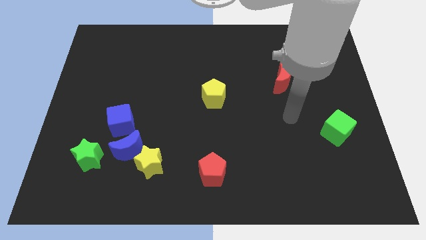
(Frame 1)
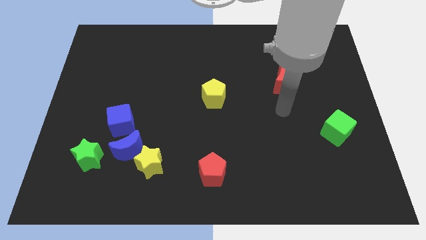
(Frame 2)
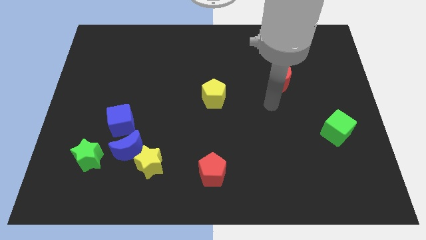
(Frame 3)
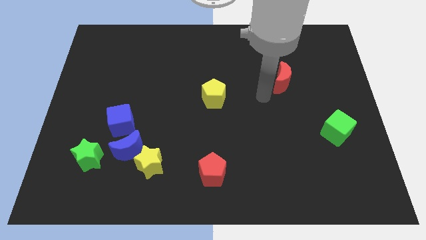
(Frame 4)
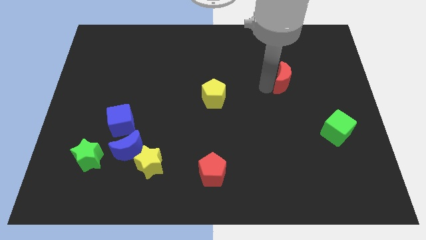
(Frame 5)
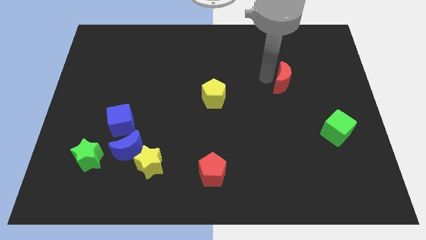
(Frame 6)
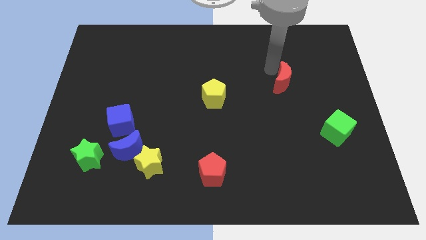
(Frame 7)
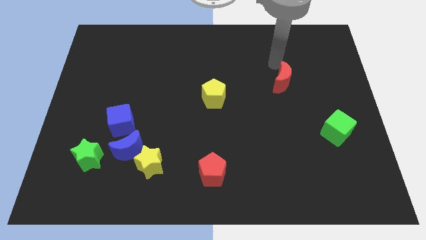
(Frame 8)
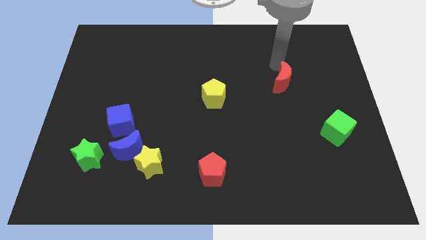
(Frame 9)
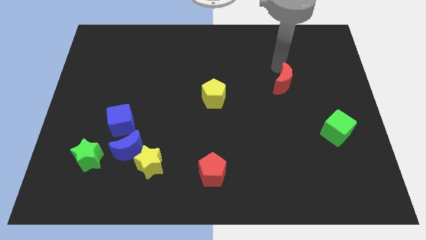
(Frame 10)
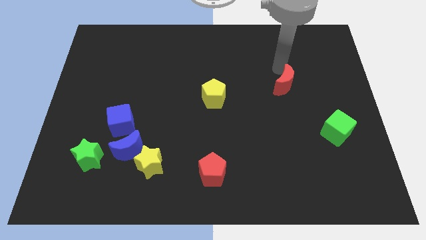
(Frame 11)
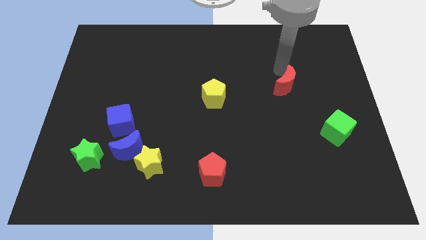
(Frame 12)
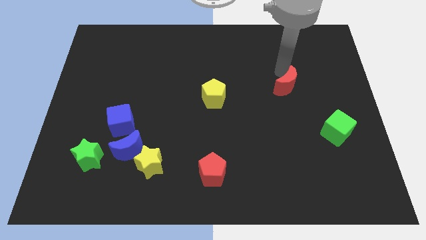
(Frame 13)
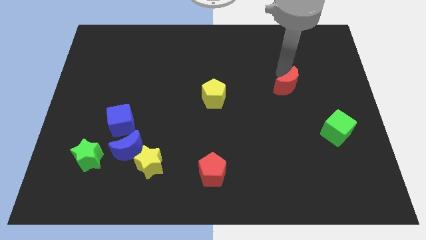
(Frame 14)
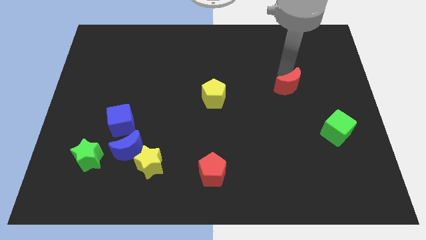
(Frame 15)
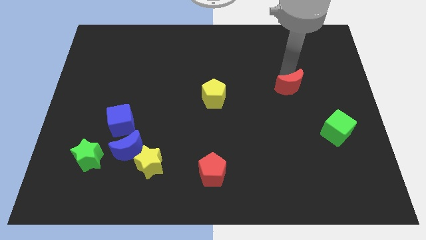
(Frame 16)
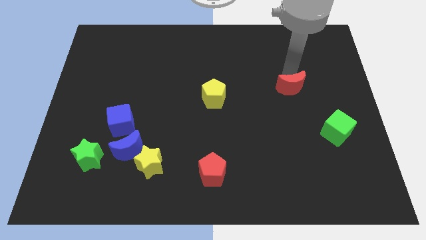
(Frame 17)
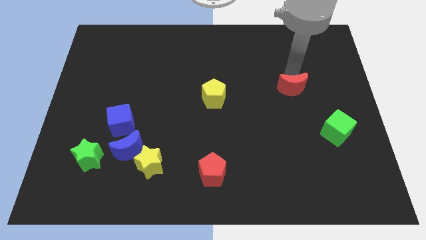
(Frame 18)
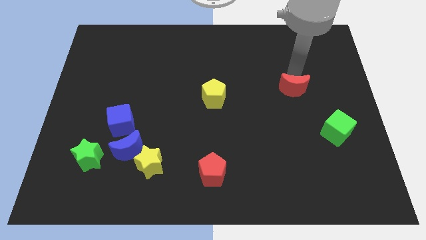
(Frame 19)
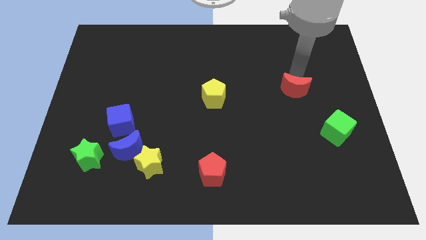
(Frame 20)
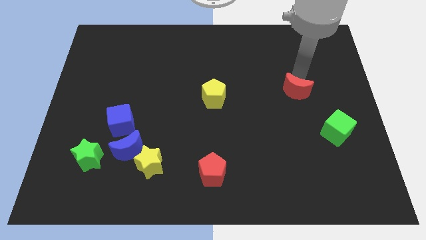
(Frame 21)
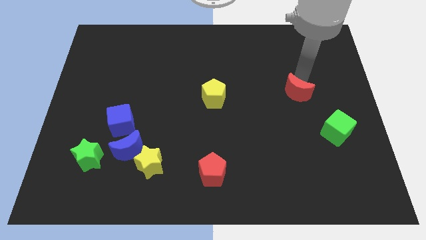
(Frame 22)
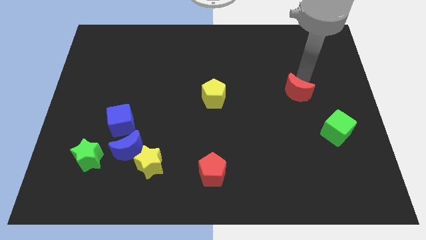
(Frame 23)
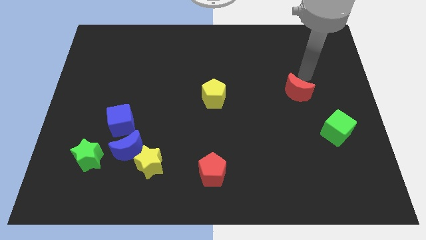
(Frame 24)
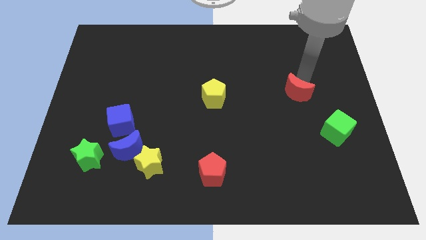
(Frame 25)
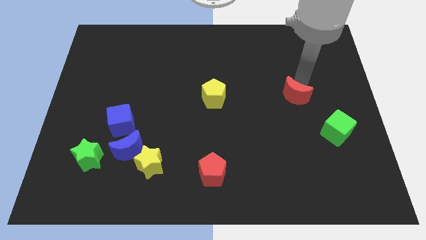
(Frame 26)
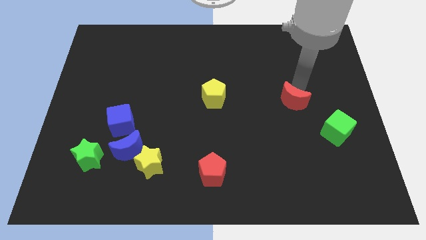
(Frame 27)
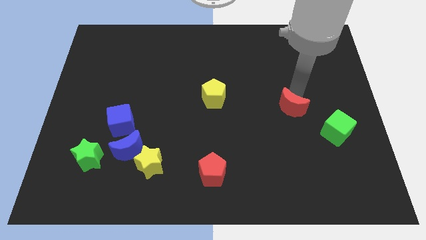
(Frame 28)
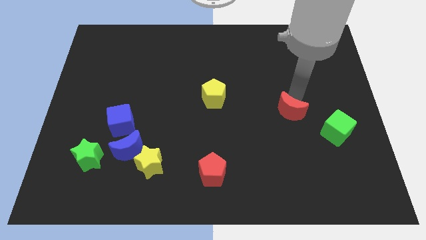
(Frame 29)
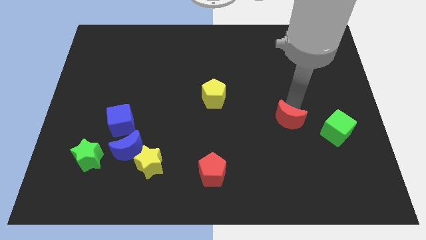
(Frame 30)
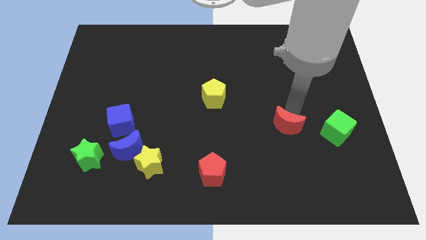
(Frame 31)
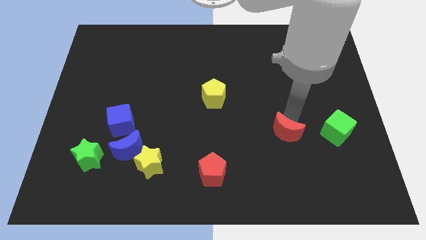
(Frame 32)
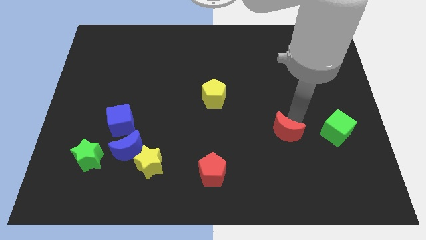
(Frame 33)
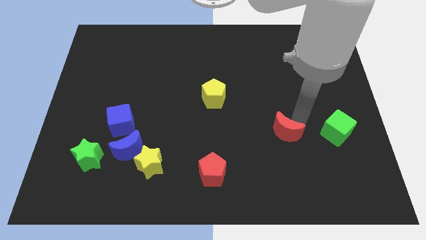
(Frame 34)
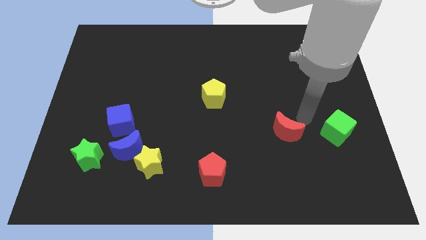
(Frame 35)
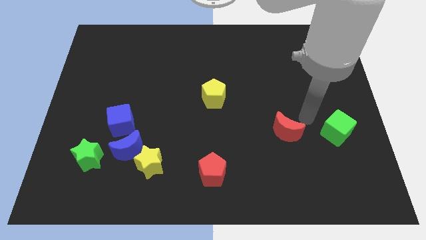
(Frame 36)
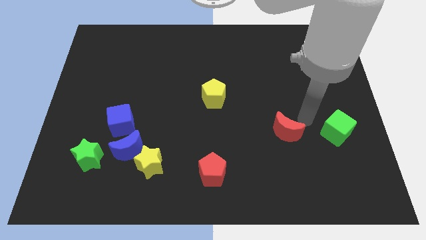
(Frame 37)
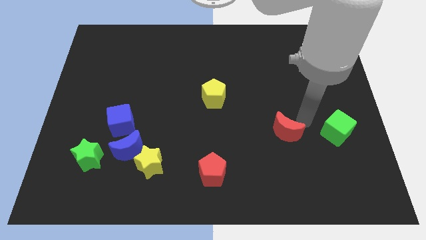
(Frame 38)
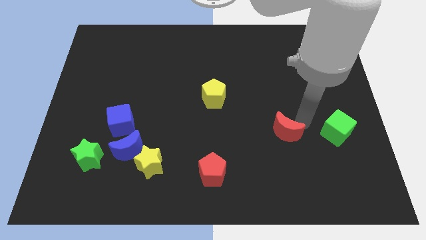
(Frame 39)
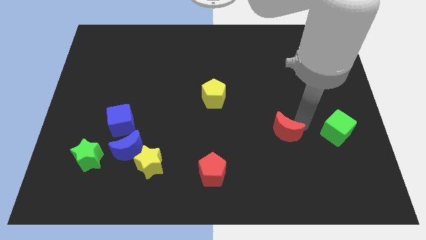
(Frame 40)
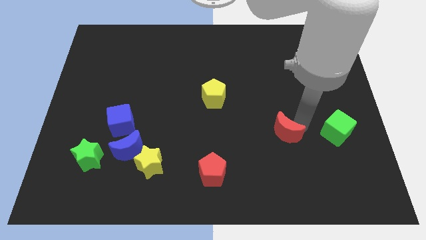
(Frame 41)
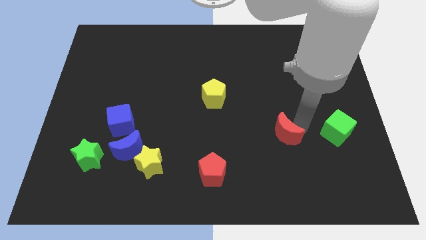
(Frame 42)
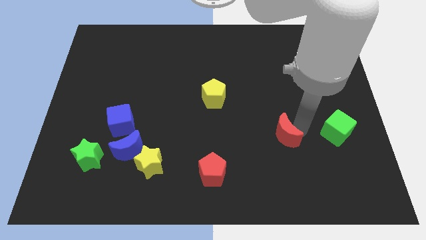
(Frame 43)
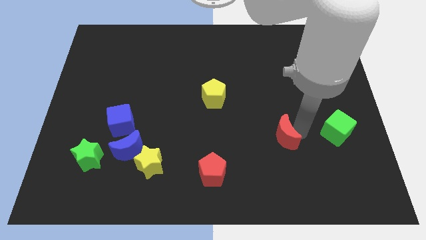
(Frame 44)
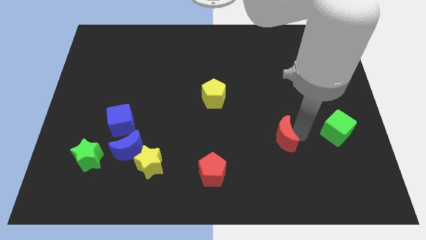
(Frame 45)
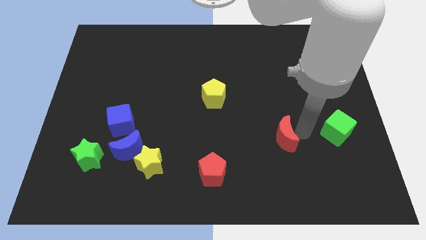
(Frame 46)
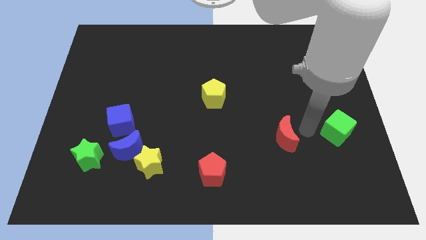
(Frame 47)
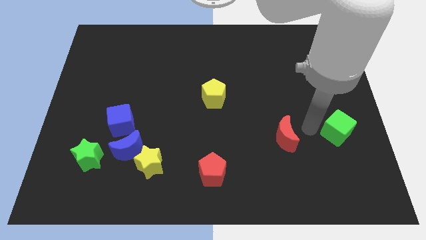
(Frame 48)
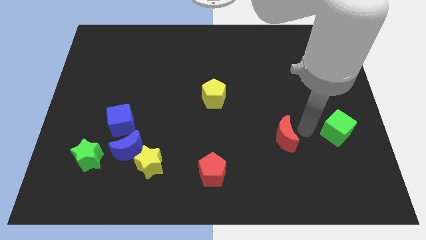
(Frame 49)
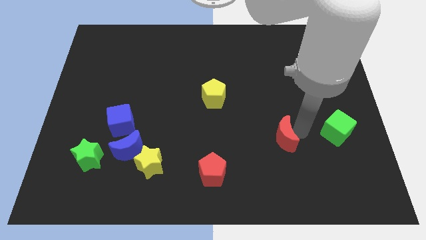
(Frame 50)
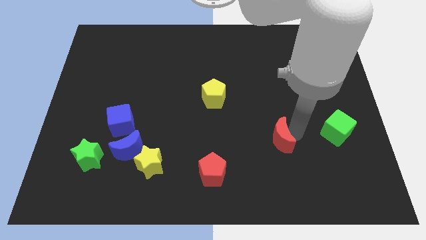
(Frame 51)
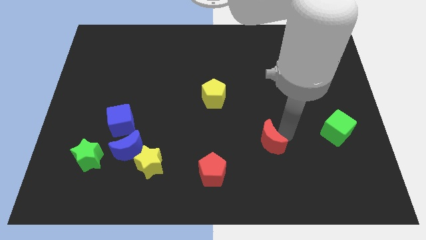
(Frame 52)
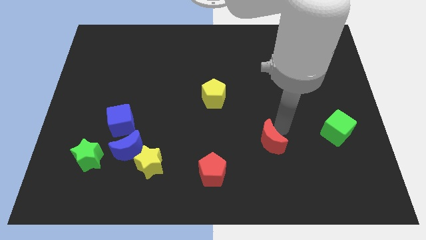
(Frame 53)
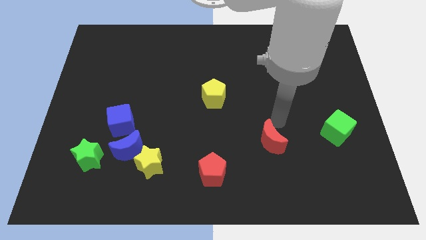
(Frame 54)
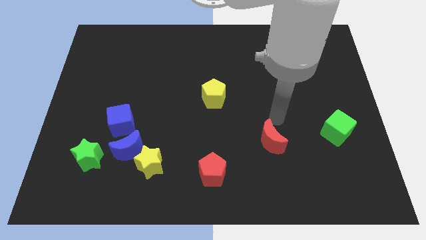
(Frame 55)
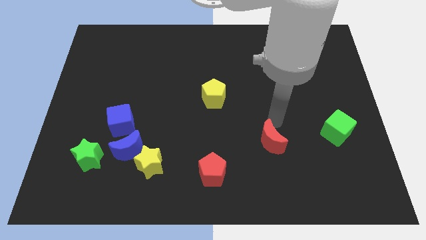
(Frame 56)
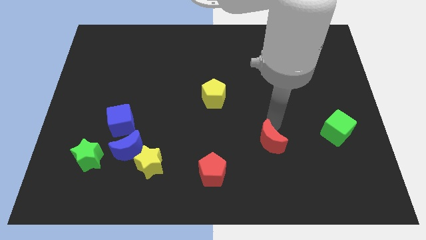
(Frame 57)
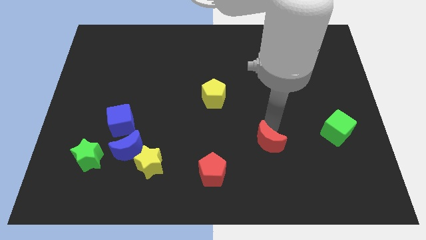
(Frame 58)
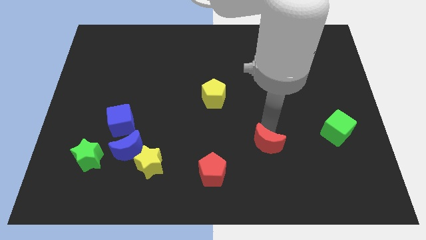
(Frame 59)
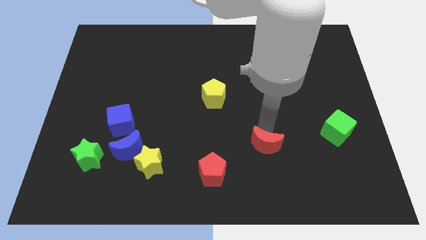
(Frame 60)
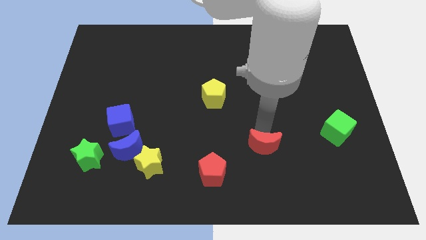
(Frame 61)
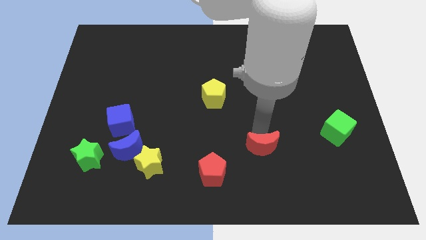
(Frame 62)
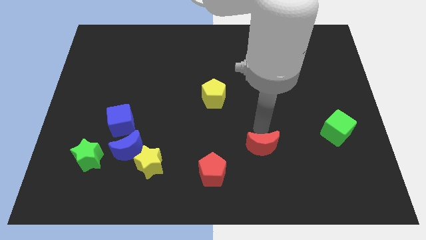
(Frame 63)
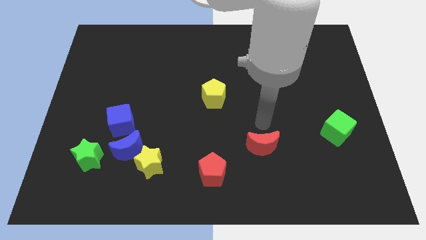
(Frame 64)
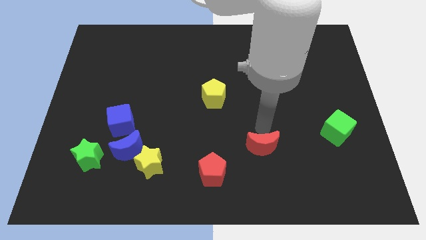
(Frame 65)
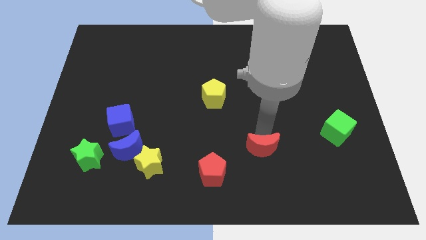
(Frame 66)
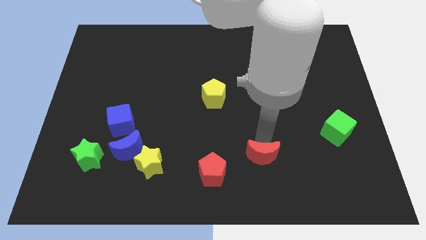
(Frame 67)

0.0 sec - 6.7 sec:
put the red moon to the right side of the red pentagon

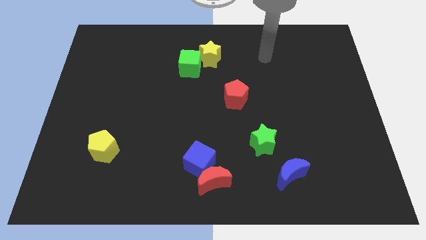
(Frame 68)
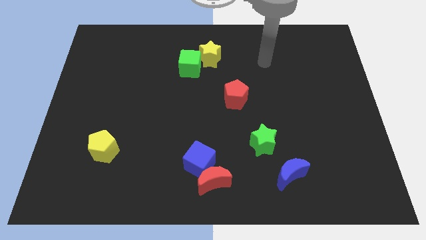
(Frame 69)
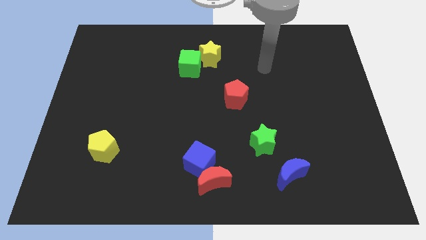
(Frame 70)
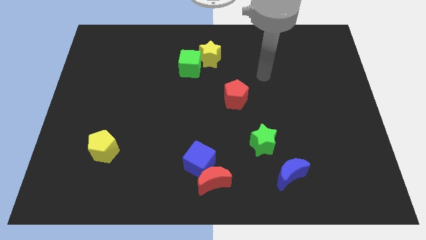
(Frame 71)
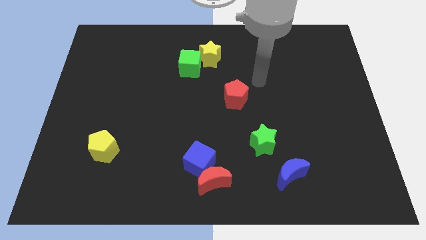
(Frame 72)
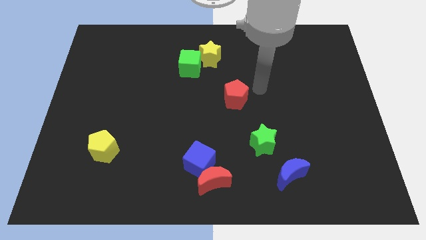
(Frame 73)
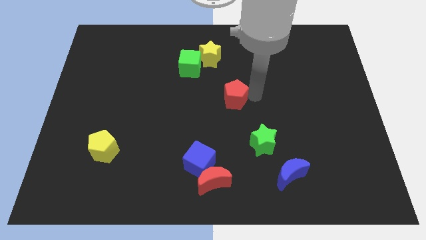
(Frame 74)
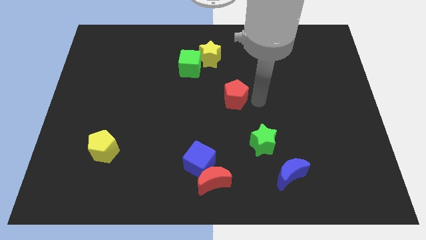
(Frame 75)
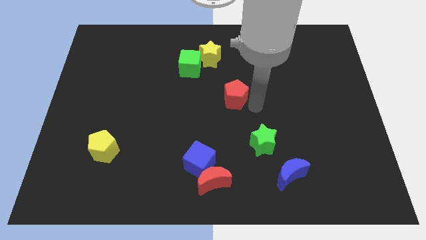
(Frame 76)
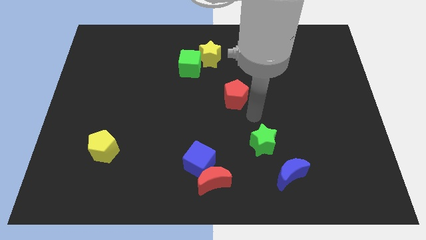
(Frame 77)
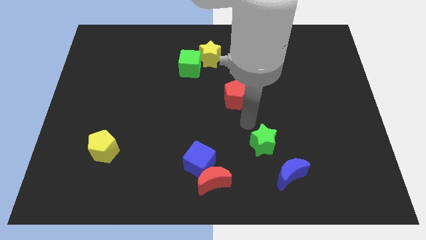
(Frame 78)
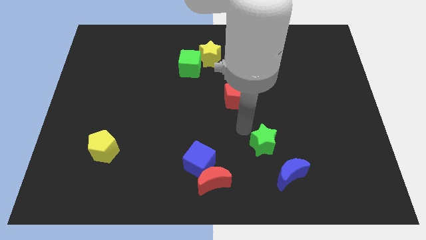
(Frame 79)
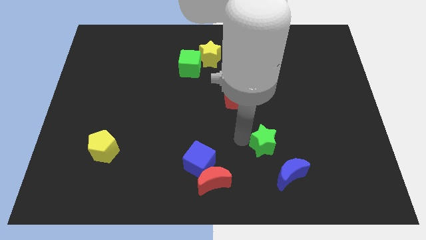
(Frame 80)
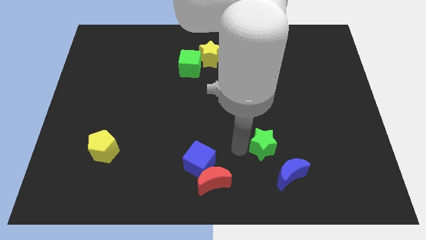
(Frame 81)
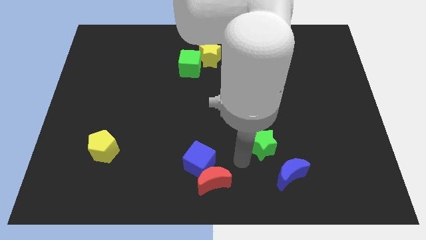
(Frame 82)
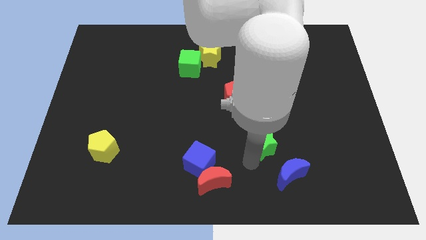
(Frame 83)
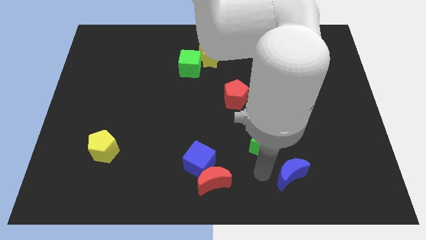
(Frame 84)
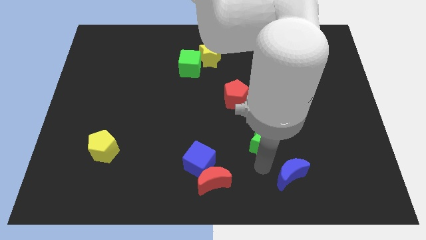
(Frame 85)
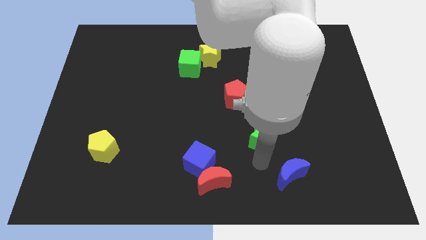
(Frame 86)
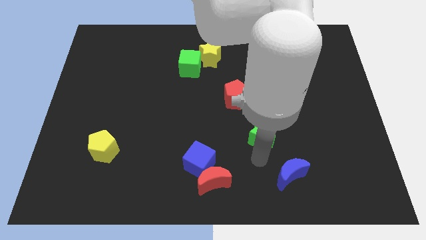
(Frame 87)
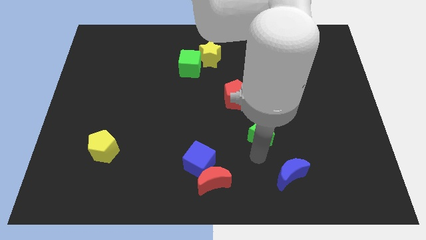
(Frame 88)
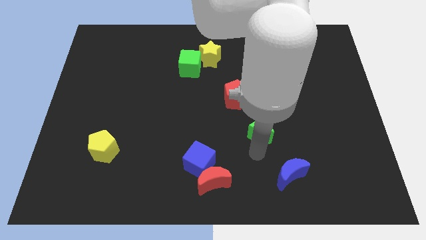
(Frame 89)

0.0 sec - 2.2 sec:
push the green star to the bottom right side of the red pentagon
